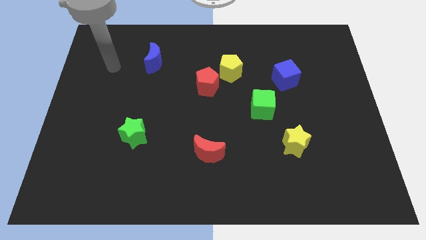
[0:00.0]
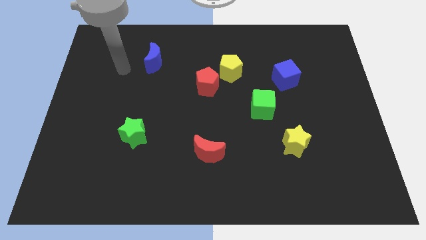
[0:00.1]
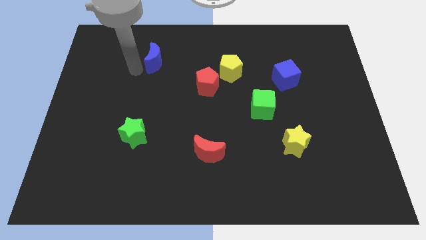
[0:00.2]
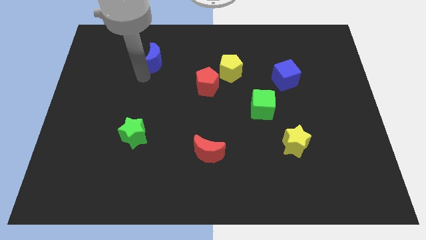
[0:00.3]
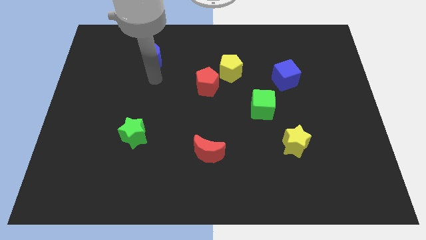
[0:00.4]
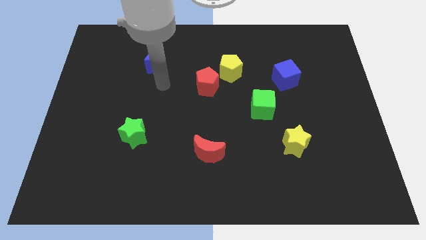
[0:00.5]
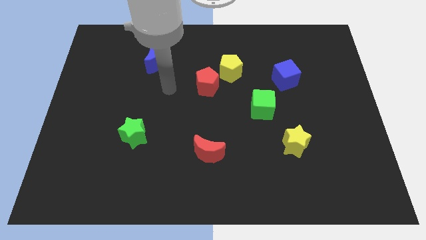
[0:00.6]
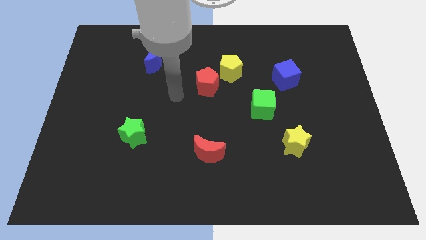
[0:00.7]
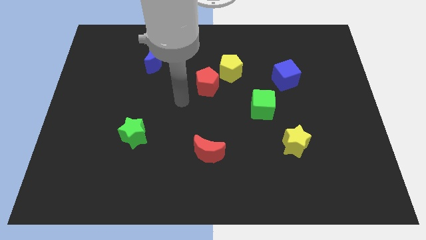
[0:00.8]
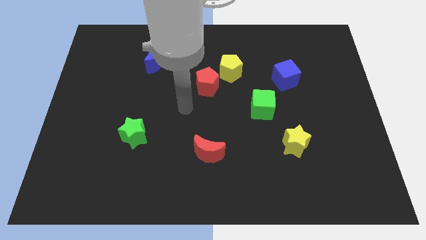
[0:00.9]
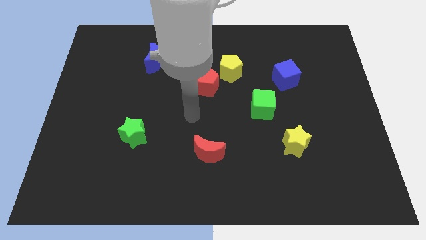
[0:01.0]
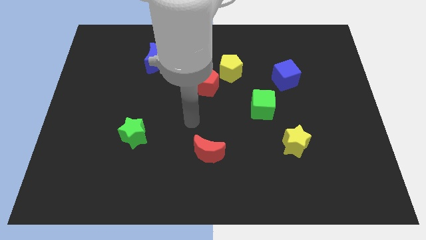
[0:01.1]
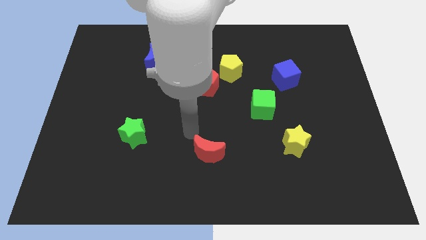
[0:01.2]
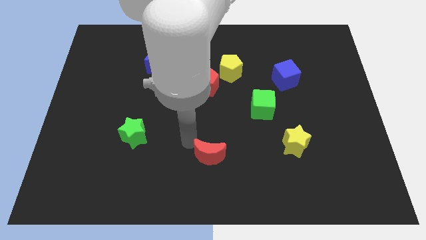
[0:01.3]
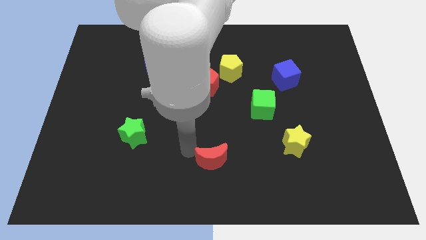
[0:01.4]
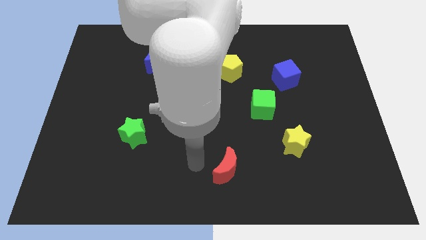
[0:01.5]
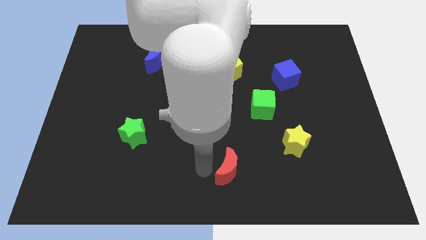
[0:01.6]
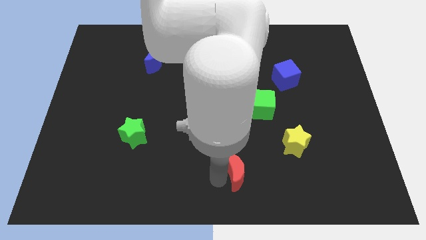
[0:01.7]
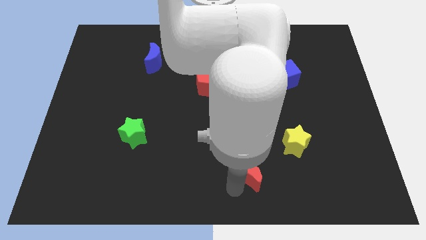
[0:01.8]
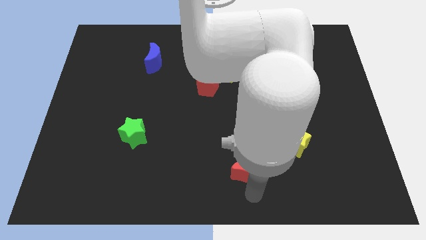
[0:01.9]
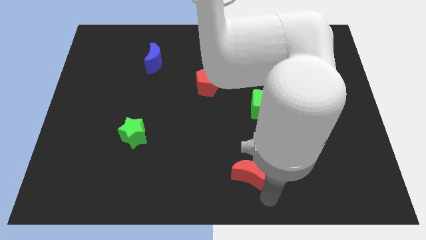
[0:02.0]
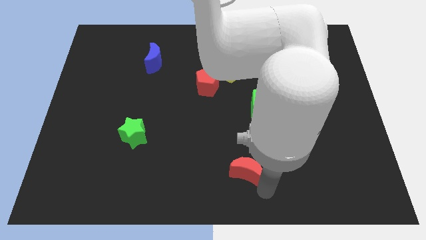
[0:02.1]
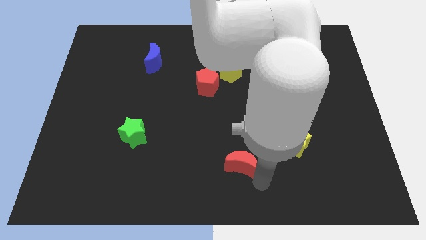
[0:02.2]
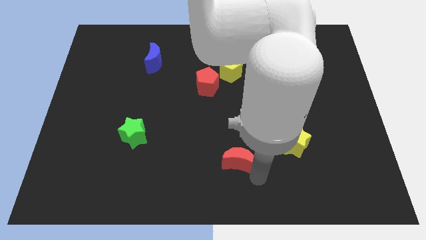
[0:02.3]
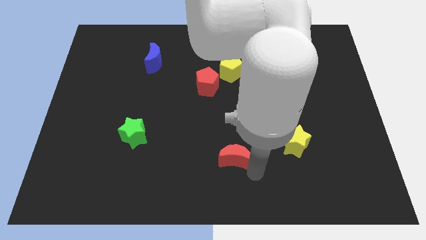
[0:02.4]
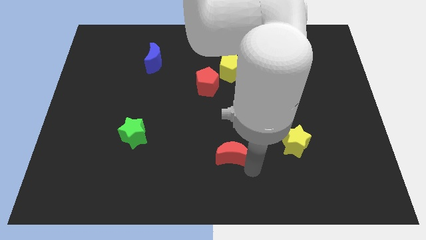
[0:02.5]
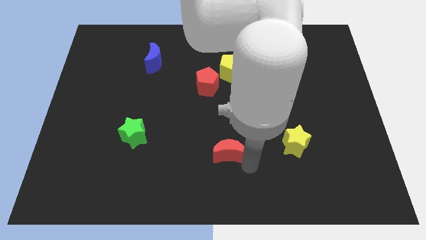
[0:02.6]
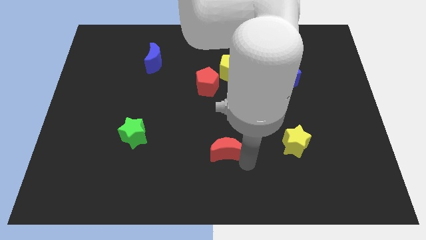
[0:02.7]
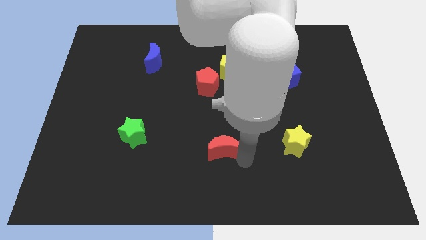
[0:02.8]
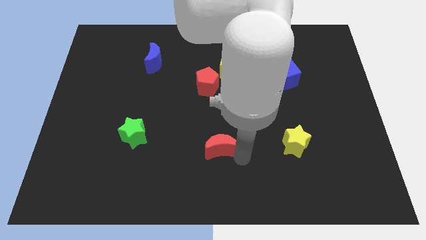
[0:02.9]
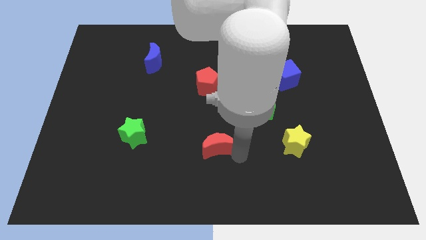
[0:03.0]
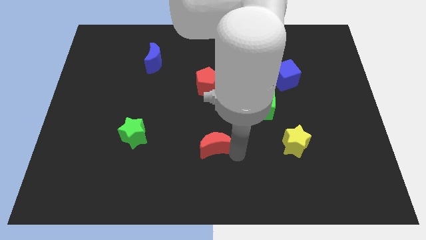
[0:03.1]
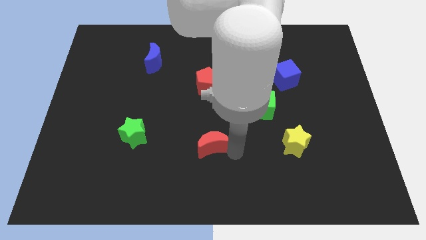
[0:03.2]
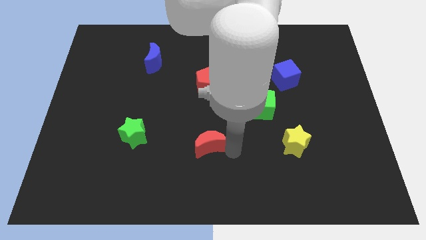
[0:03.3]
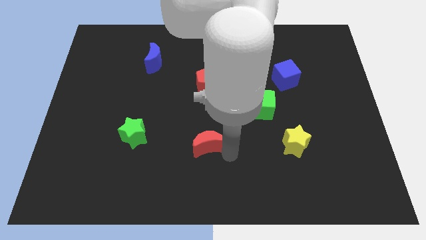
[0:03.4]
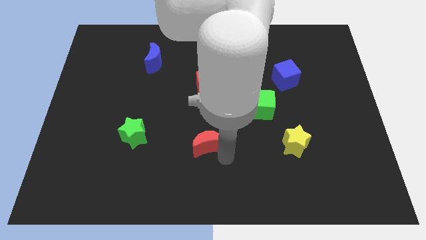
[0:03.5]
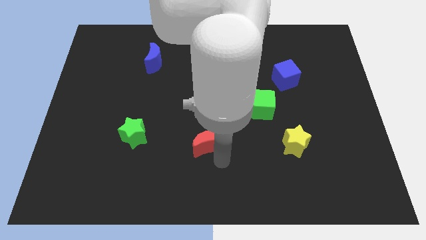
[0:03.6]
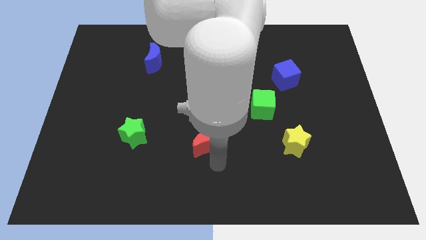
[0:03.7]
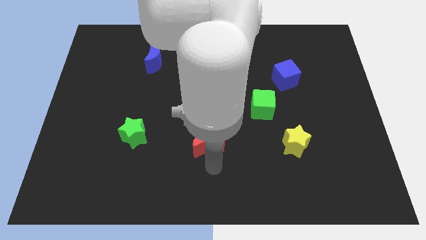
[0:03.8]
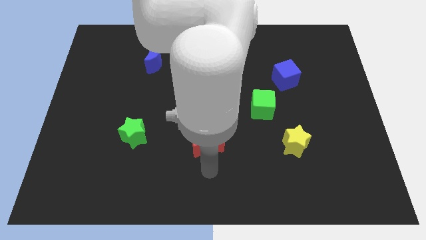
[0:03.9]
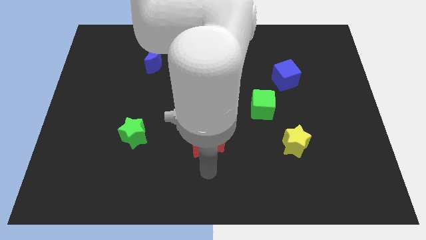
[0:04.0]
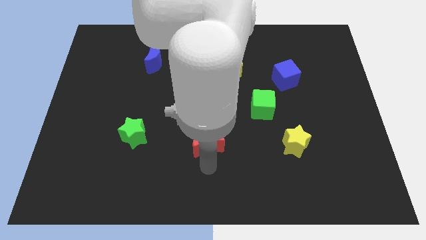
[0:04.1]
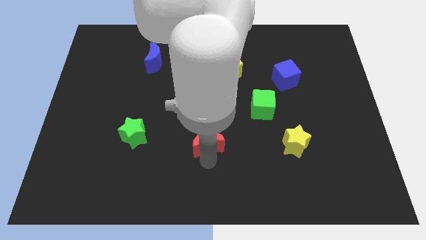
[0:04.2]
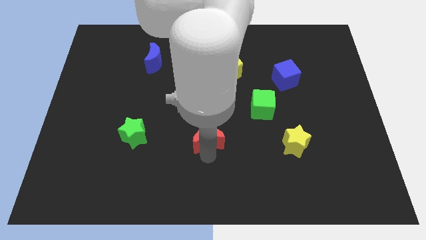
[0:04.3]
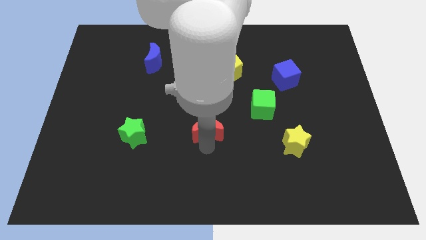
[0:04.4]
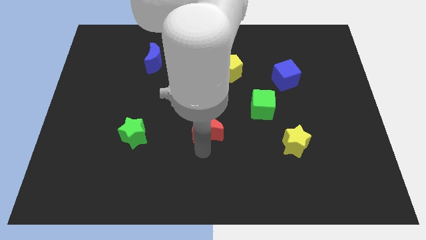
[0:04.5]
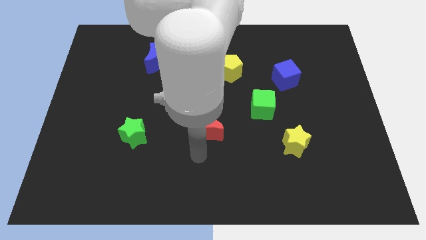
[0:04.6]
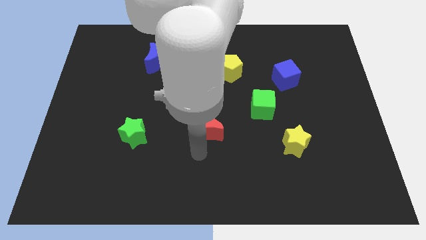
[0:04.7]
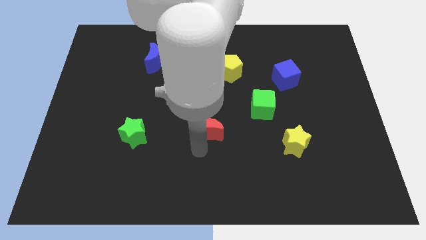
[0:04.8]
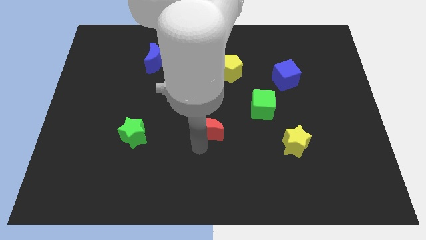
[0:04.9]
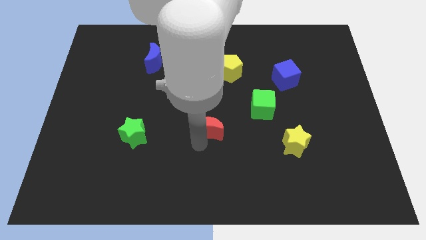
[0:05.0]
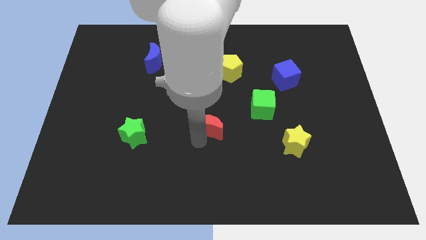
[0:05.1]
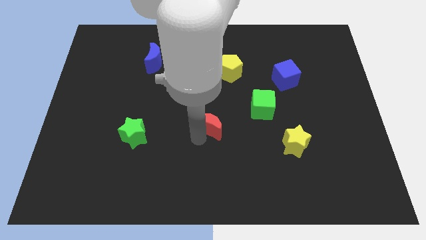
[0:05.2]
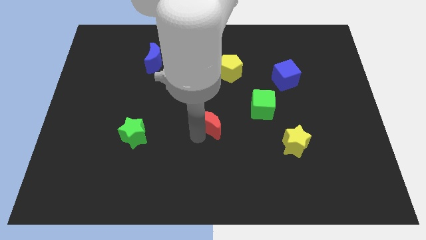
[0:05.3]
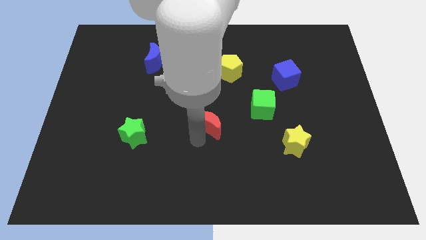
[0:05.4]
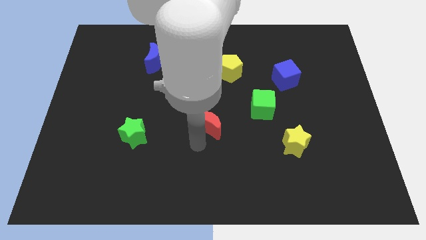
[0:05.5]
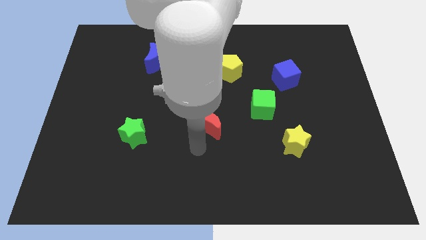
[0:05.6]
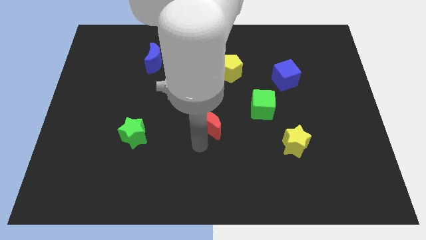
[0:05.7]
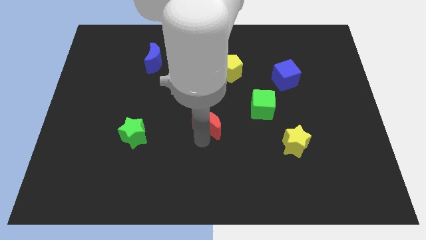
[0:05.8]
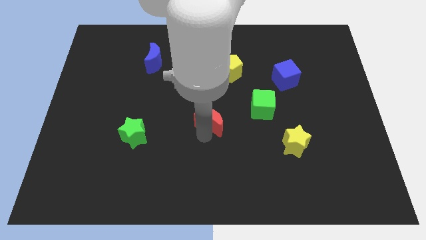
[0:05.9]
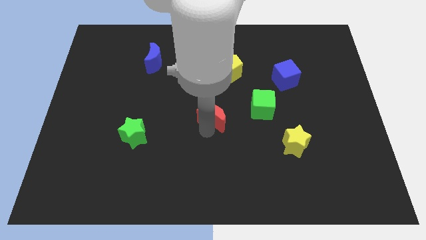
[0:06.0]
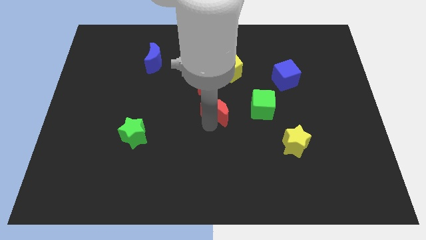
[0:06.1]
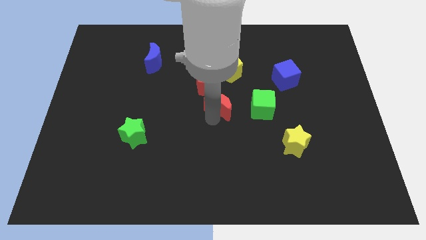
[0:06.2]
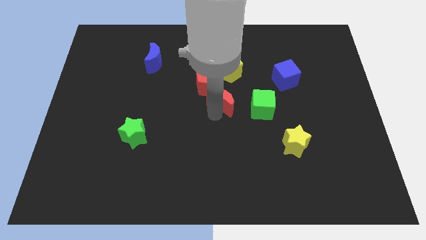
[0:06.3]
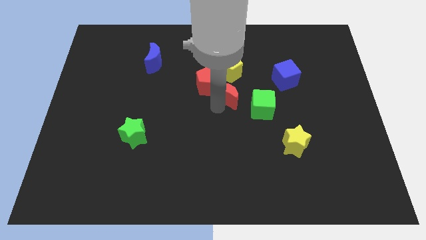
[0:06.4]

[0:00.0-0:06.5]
push the red moon to the right of the red pentagon
